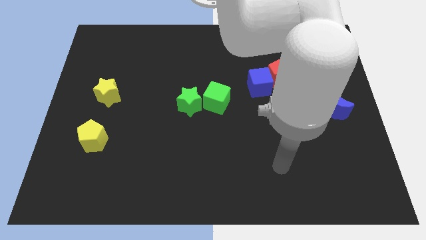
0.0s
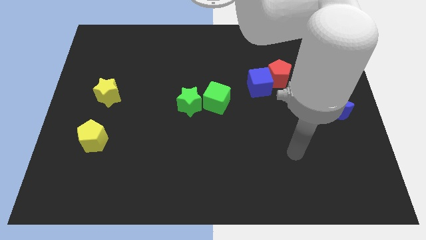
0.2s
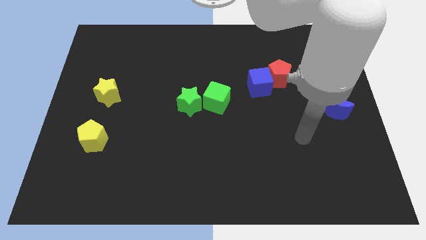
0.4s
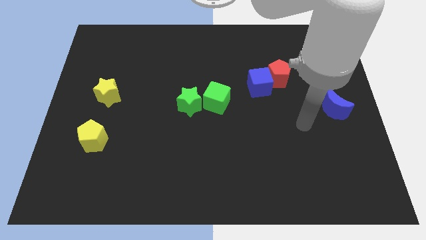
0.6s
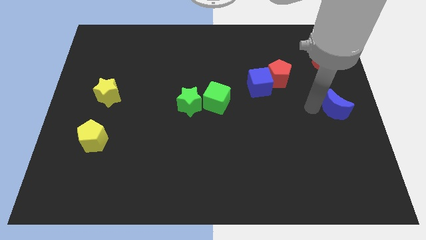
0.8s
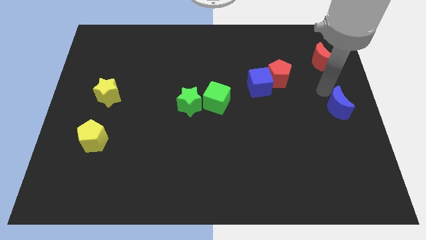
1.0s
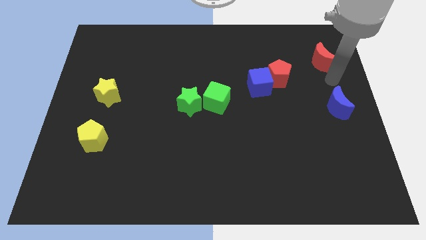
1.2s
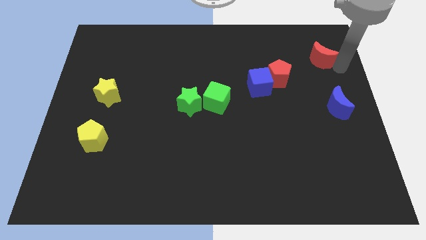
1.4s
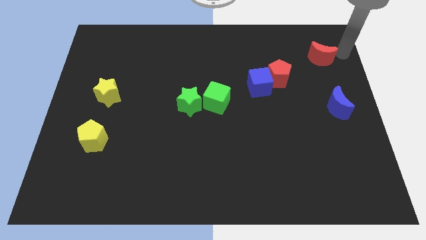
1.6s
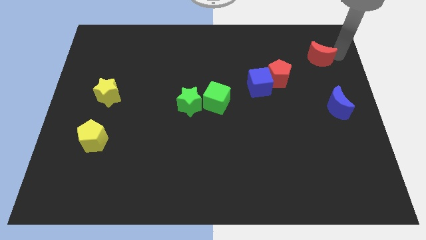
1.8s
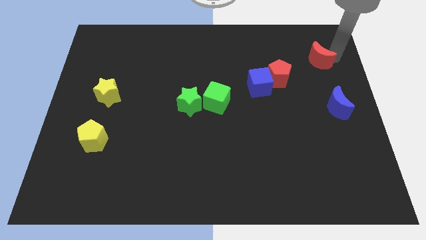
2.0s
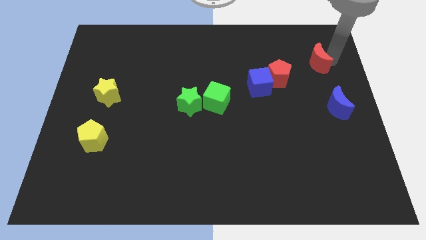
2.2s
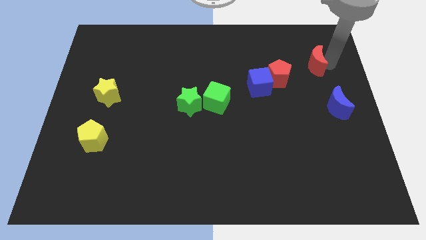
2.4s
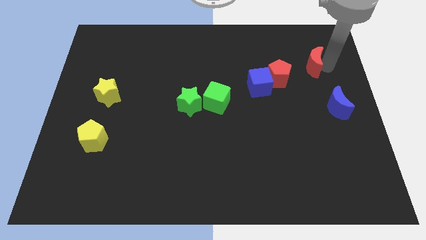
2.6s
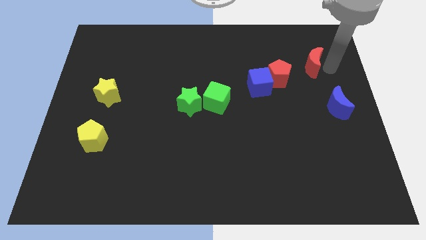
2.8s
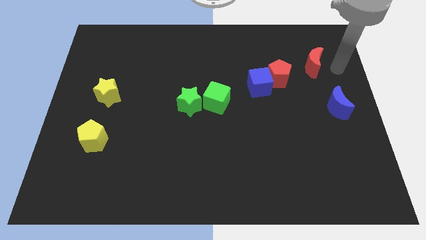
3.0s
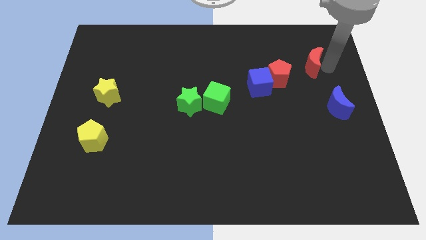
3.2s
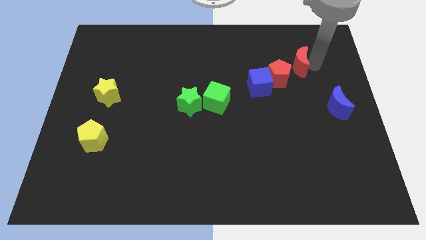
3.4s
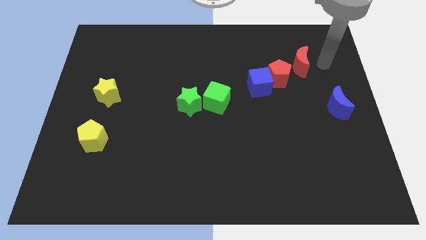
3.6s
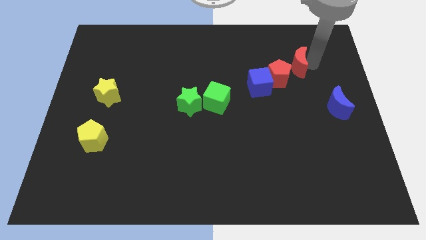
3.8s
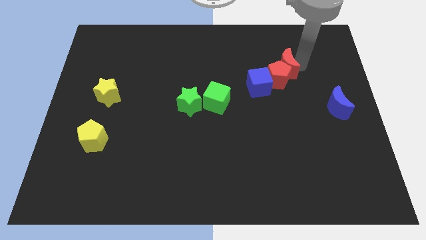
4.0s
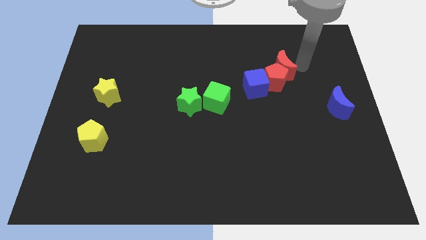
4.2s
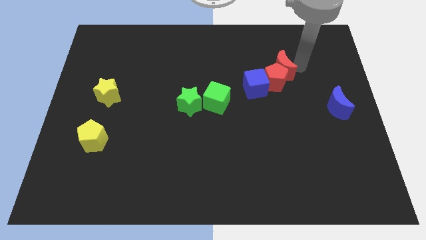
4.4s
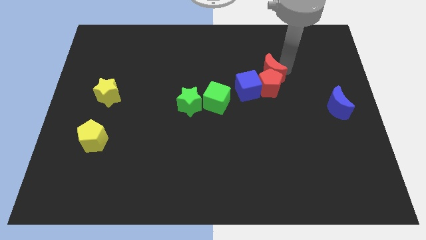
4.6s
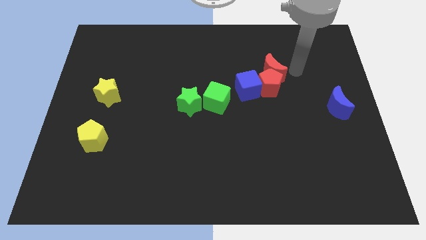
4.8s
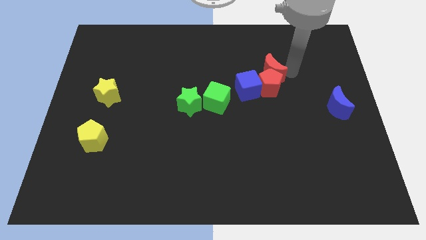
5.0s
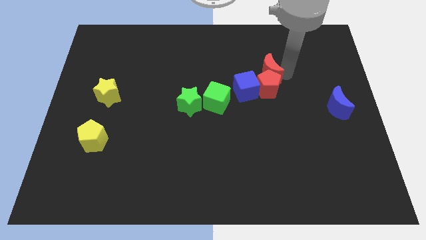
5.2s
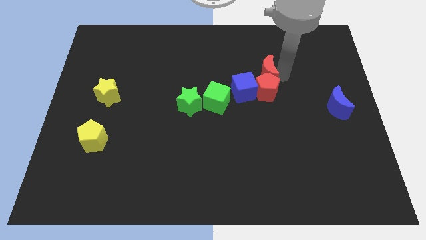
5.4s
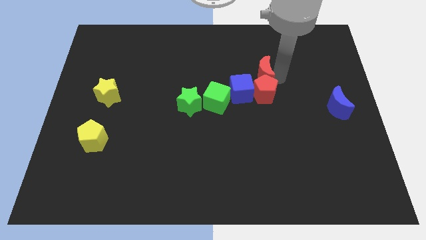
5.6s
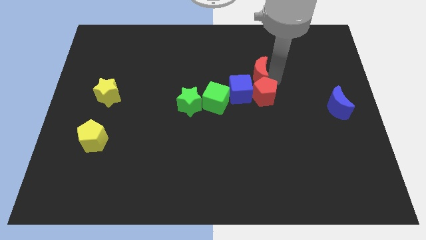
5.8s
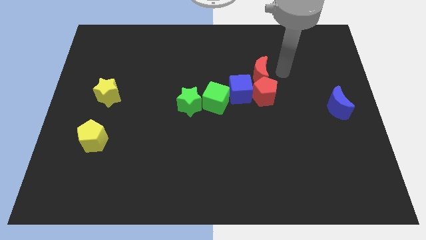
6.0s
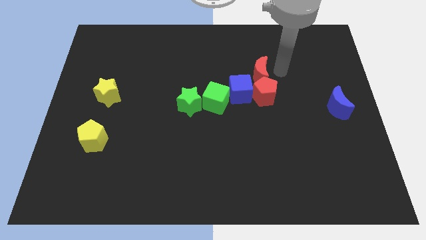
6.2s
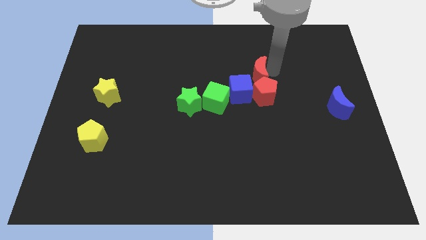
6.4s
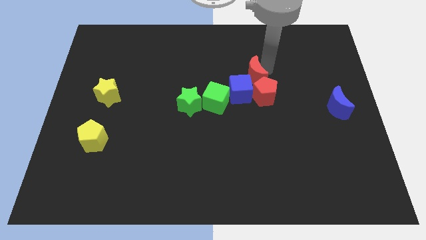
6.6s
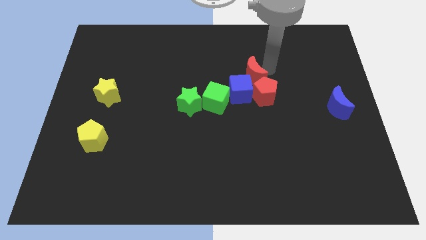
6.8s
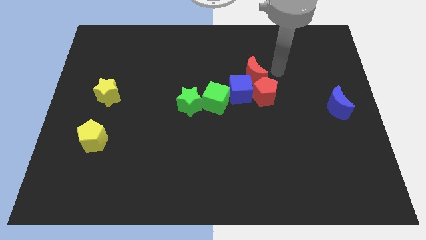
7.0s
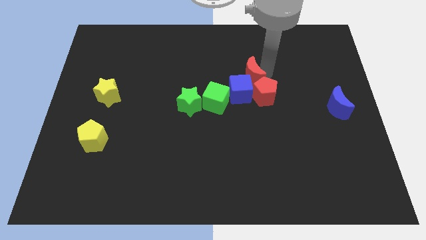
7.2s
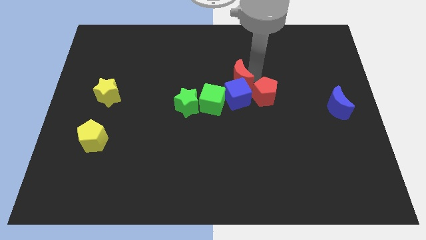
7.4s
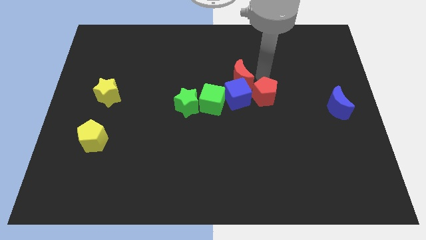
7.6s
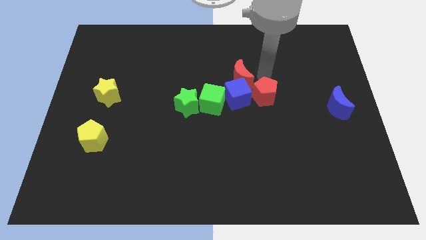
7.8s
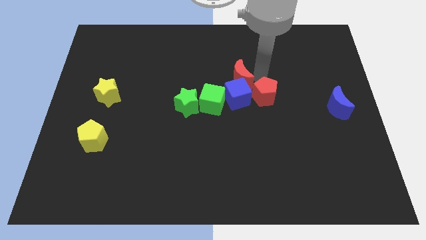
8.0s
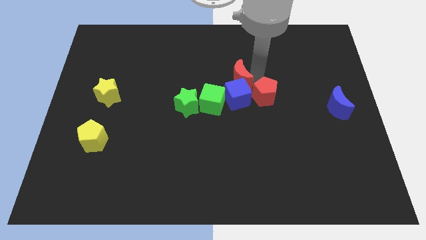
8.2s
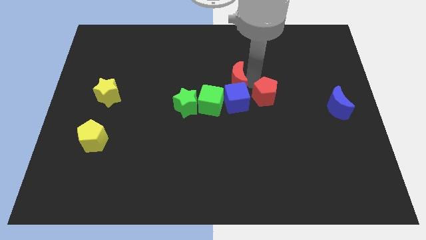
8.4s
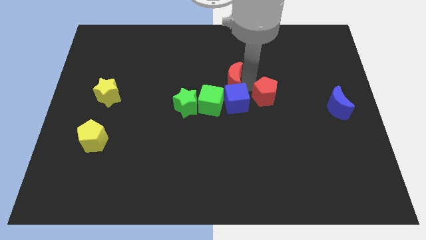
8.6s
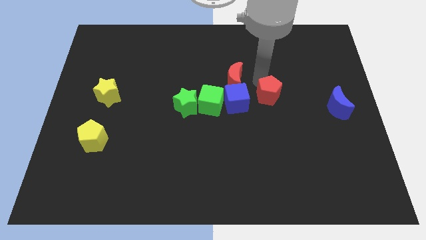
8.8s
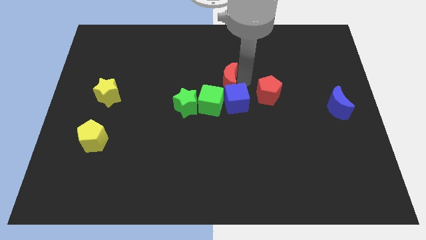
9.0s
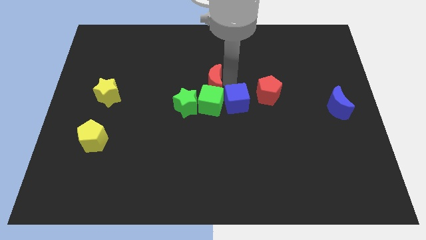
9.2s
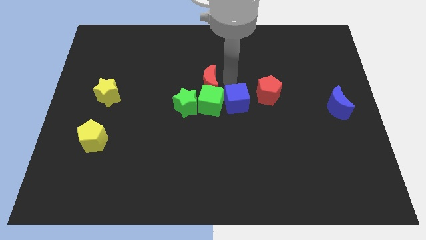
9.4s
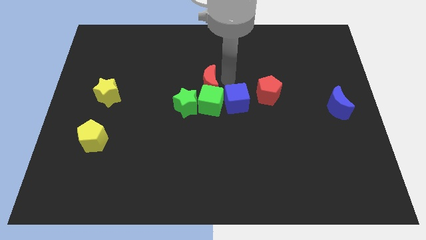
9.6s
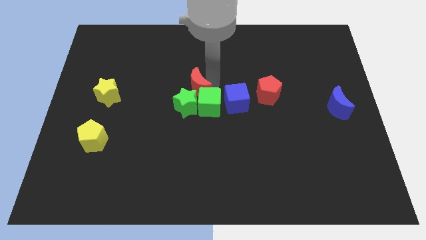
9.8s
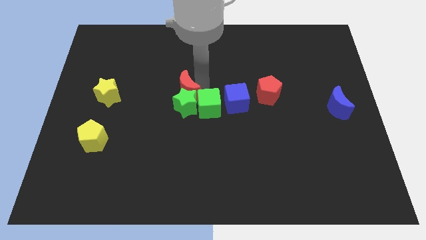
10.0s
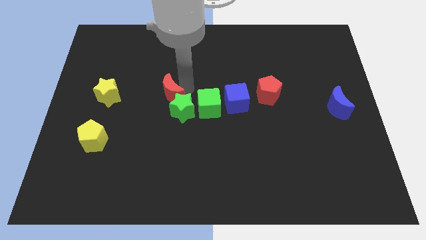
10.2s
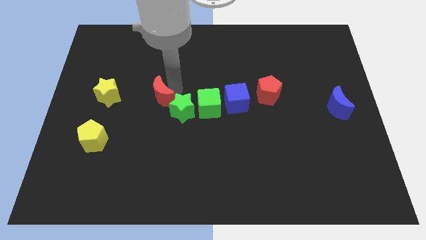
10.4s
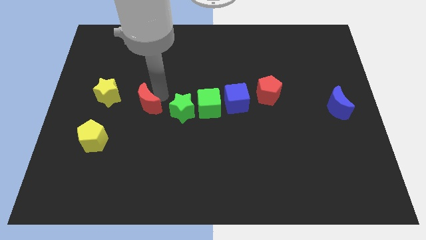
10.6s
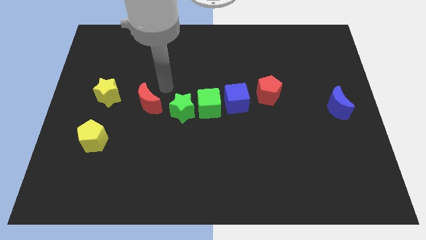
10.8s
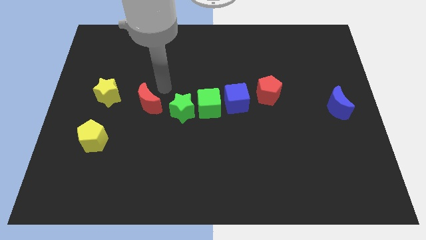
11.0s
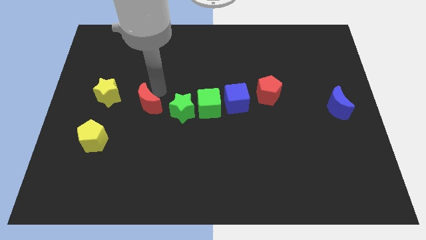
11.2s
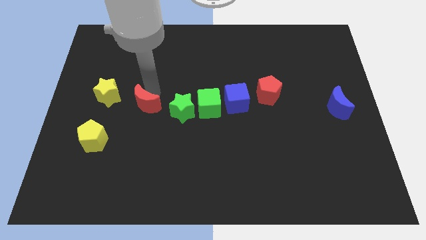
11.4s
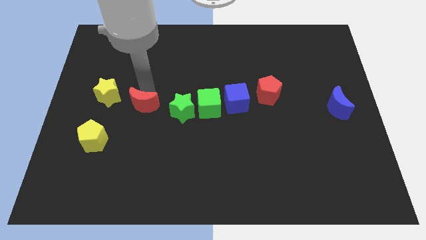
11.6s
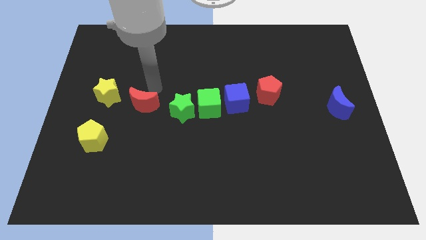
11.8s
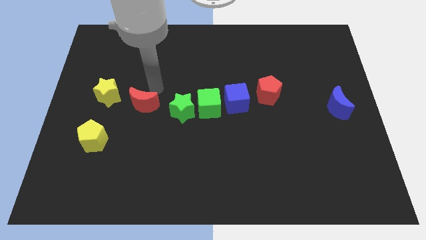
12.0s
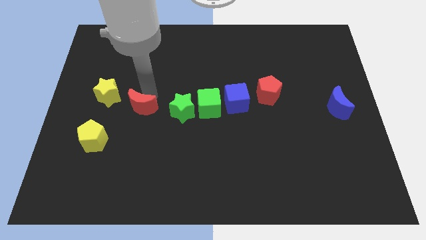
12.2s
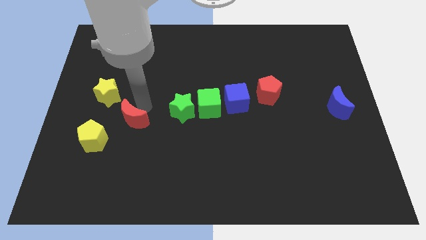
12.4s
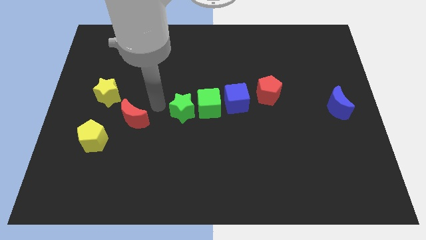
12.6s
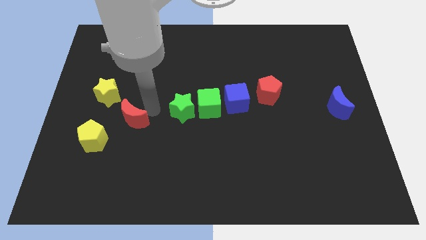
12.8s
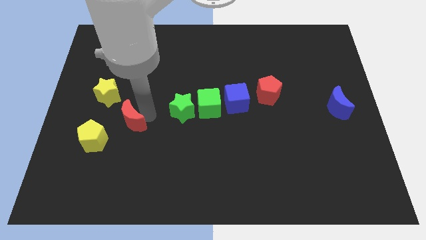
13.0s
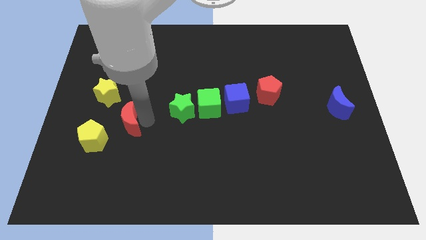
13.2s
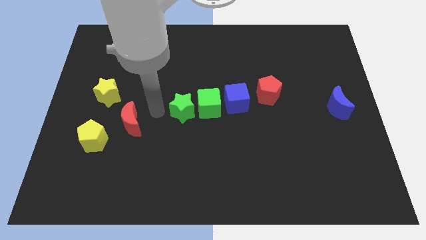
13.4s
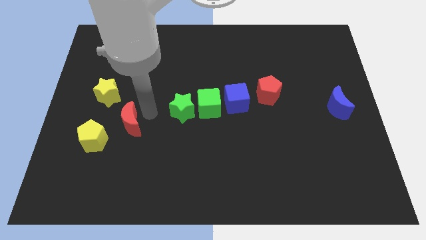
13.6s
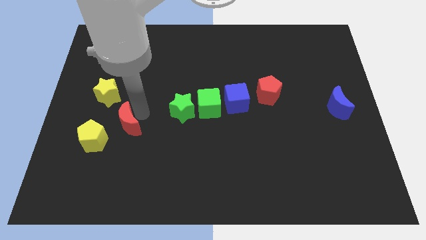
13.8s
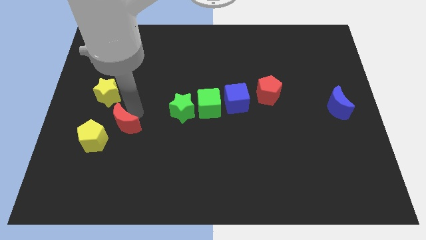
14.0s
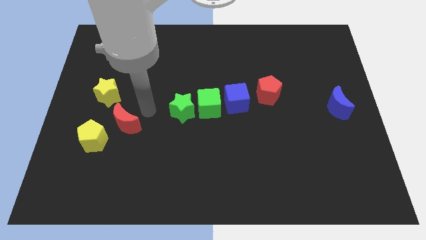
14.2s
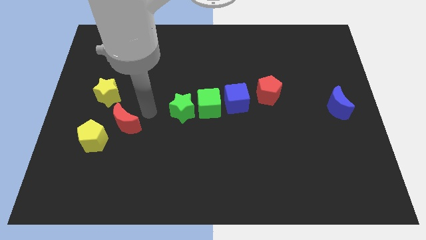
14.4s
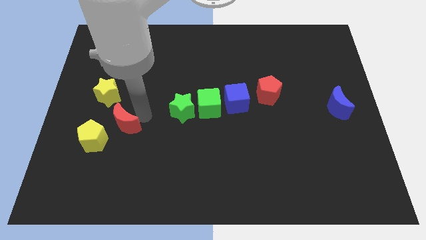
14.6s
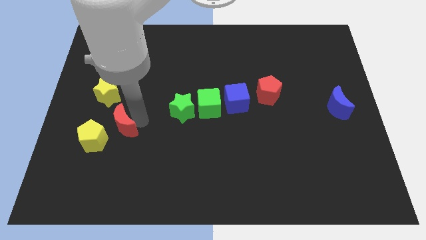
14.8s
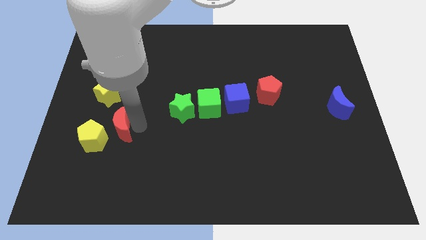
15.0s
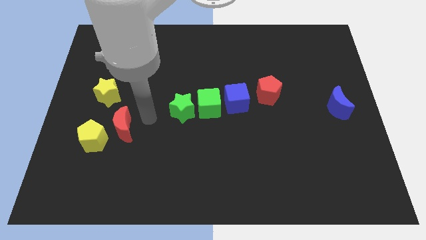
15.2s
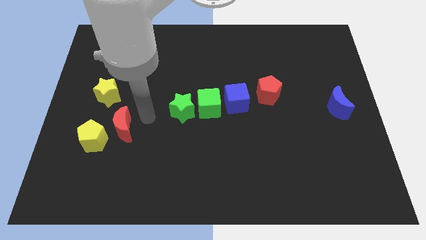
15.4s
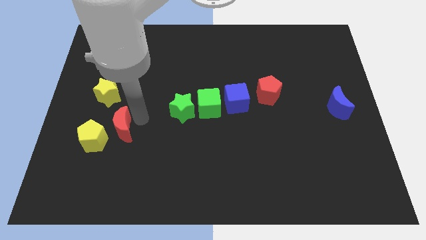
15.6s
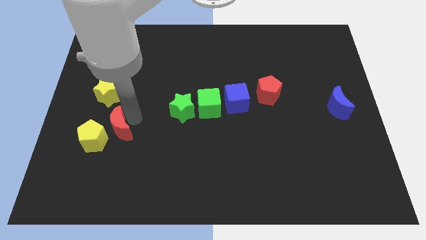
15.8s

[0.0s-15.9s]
move the red moon to the yellow pentagon
